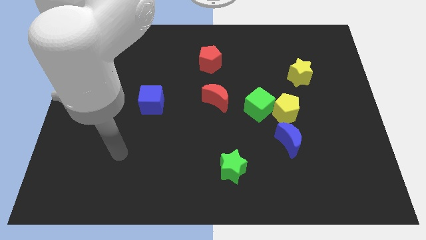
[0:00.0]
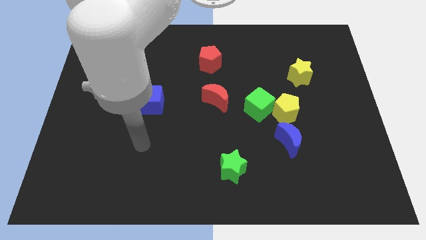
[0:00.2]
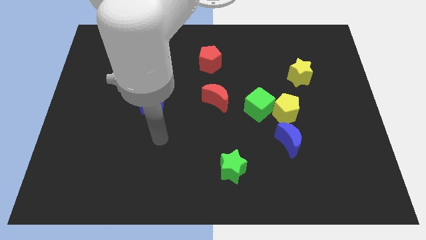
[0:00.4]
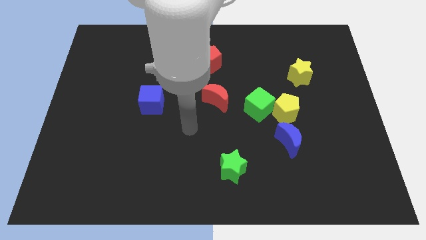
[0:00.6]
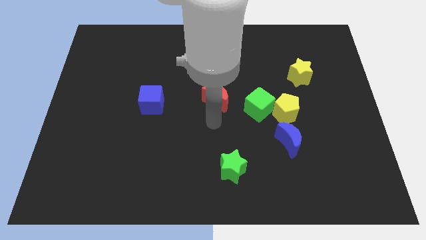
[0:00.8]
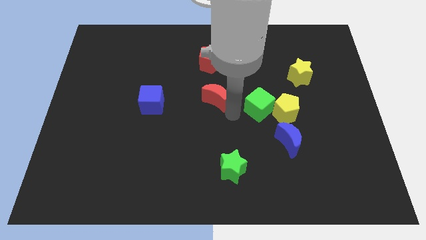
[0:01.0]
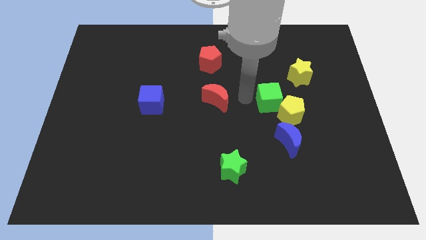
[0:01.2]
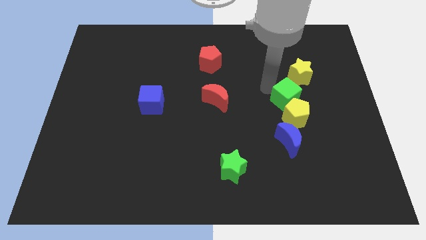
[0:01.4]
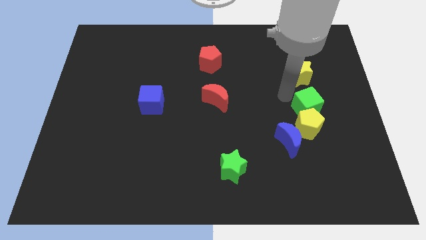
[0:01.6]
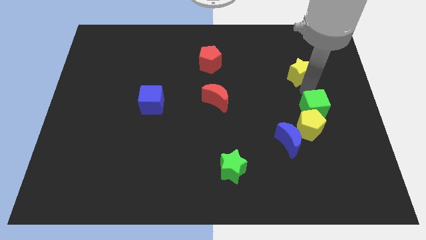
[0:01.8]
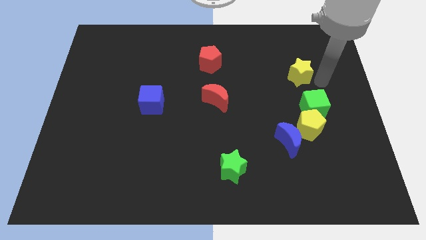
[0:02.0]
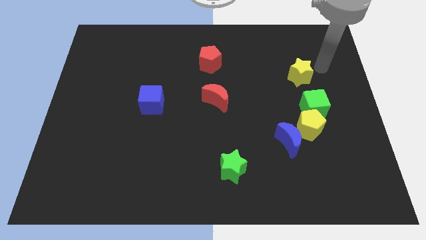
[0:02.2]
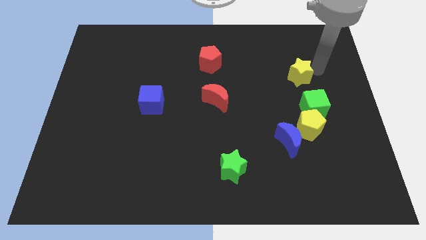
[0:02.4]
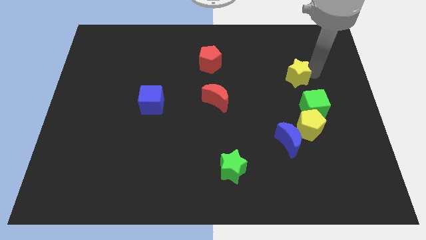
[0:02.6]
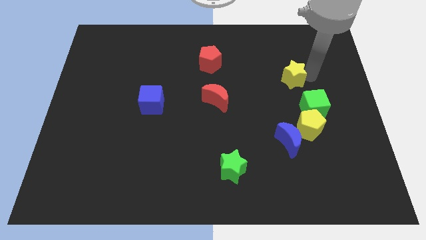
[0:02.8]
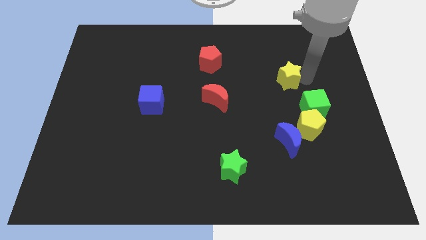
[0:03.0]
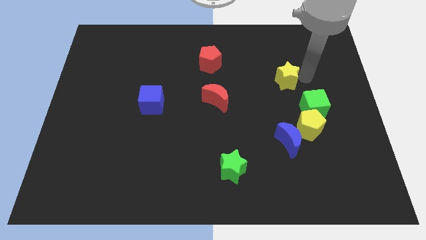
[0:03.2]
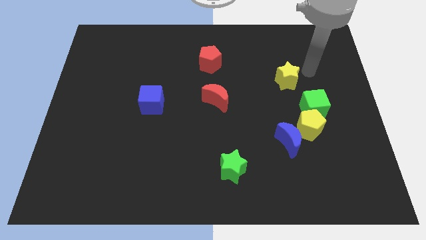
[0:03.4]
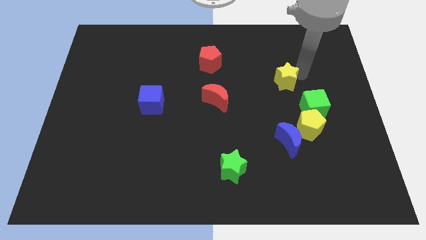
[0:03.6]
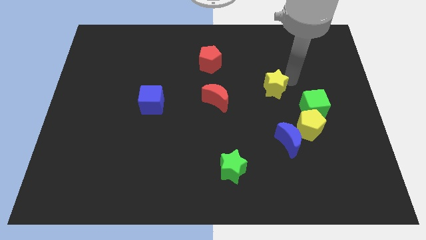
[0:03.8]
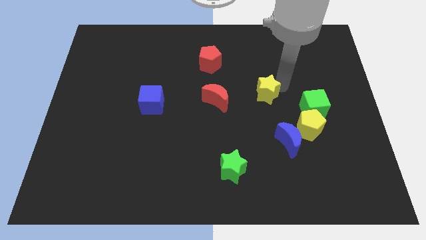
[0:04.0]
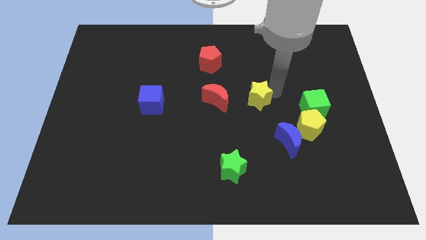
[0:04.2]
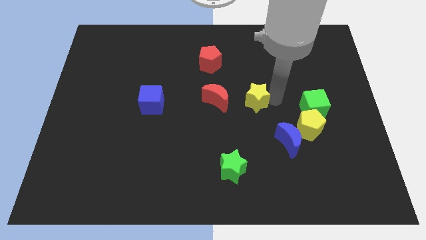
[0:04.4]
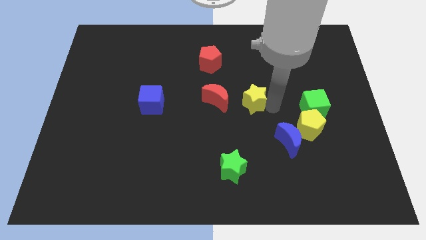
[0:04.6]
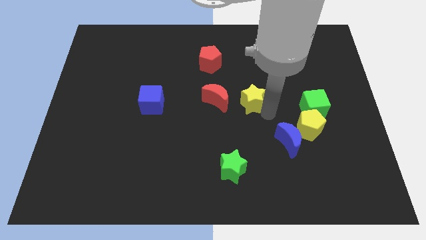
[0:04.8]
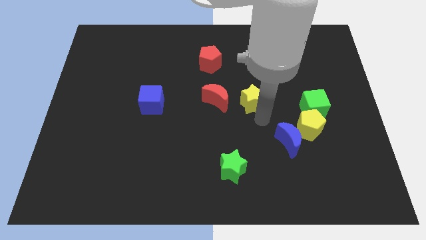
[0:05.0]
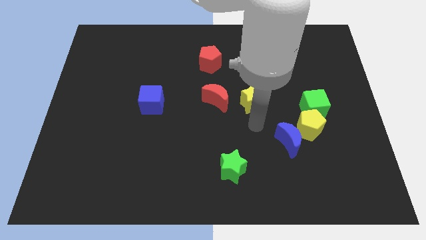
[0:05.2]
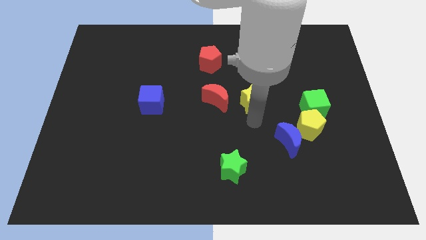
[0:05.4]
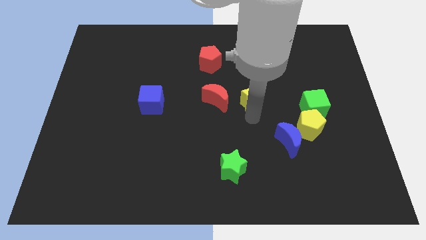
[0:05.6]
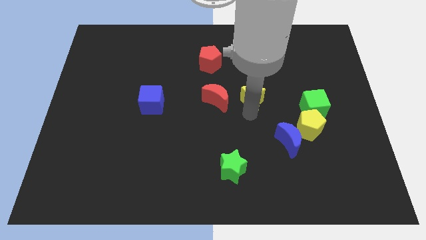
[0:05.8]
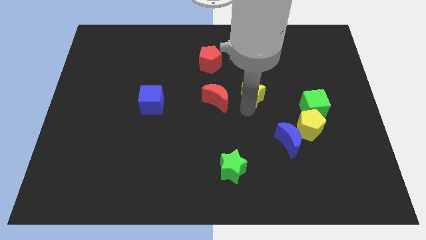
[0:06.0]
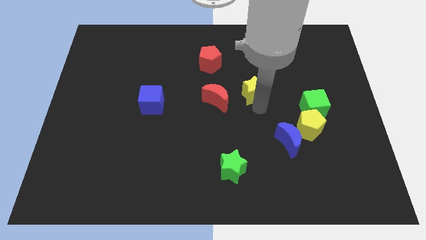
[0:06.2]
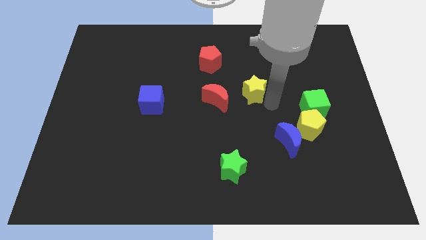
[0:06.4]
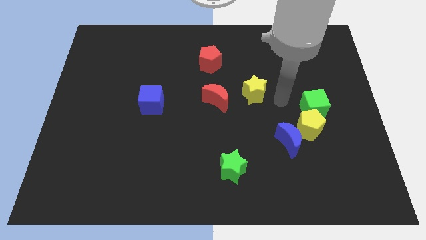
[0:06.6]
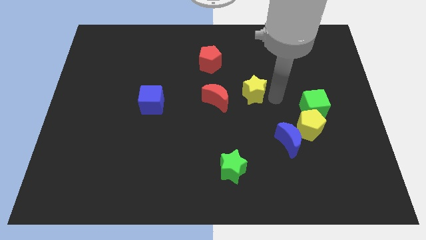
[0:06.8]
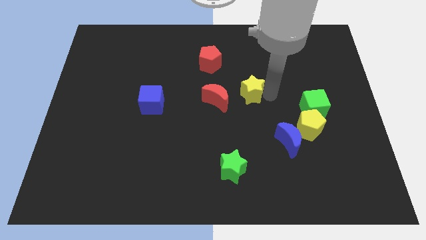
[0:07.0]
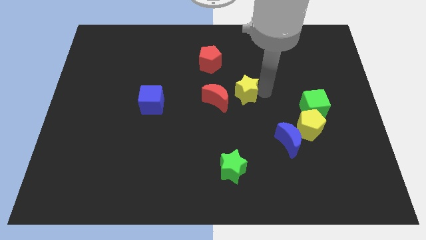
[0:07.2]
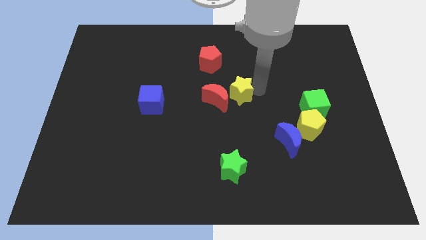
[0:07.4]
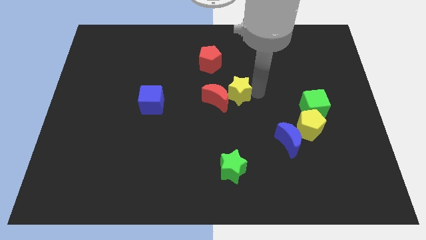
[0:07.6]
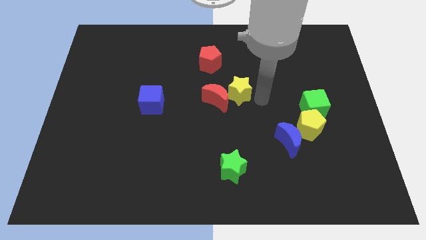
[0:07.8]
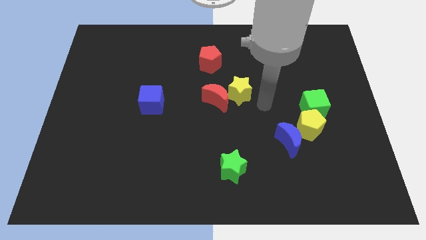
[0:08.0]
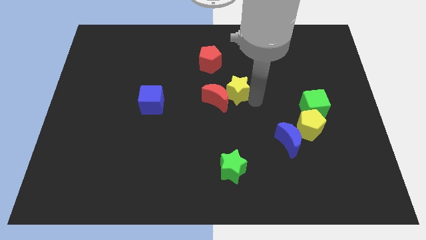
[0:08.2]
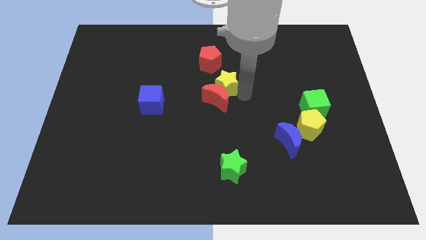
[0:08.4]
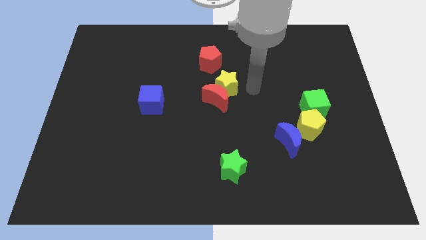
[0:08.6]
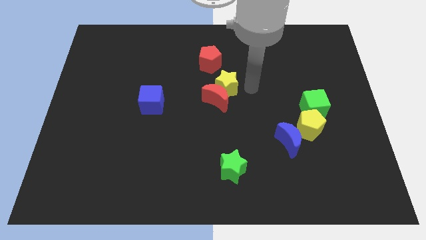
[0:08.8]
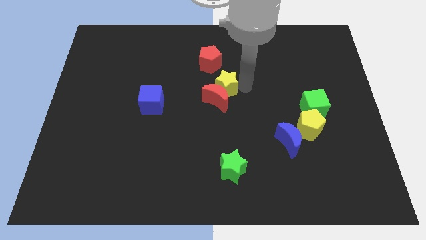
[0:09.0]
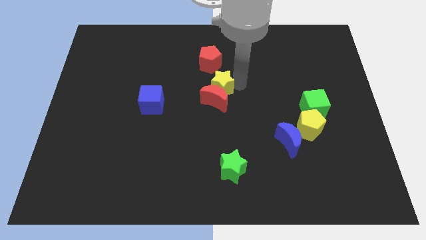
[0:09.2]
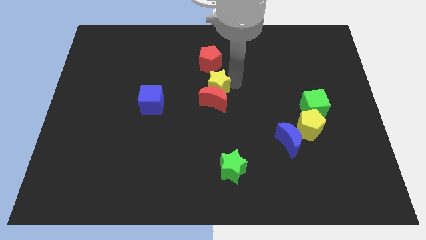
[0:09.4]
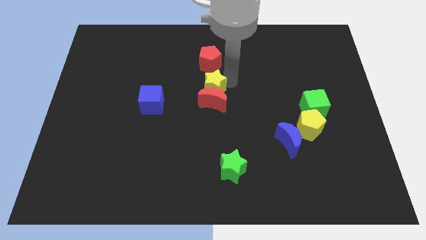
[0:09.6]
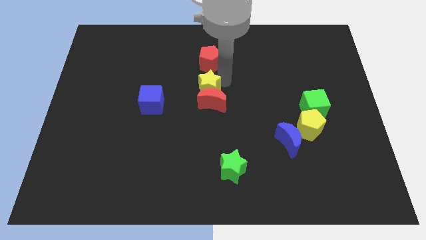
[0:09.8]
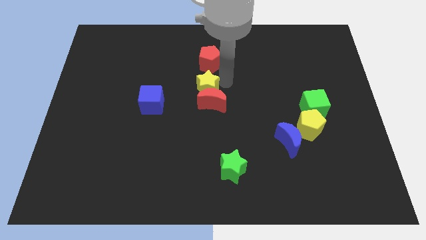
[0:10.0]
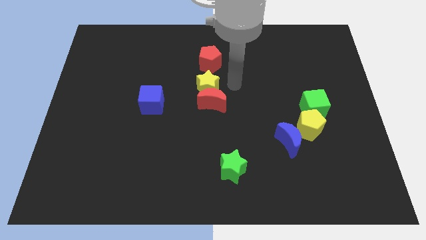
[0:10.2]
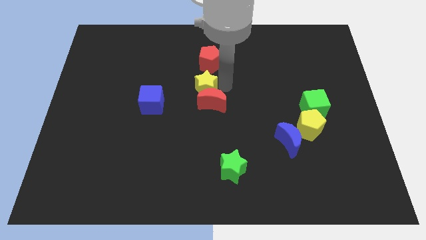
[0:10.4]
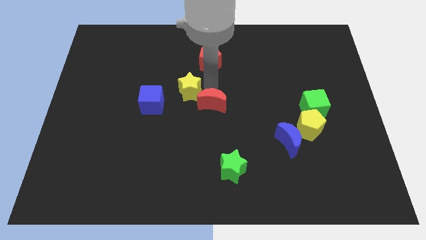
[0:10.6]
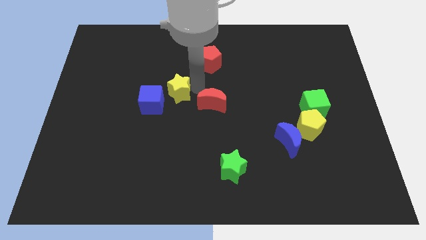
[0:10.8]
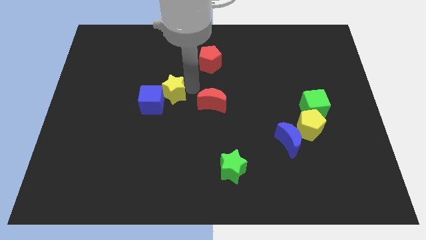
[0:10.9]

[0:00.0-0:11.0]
put the yellow star close to the blue cube

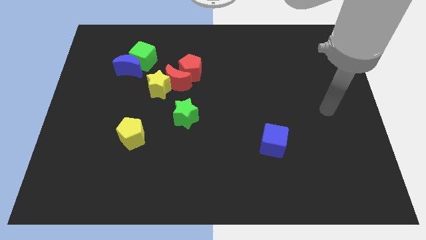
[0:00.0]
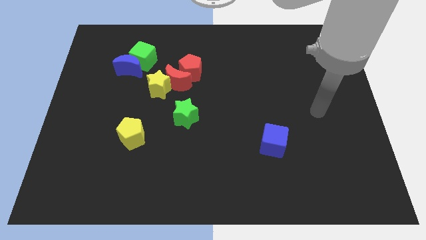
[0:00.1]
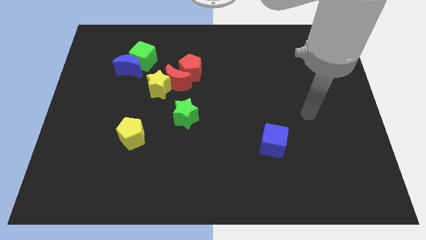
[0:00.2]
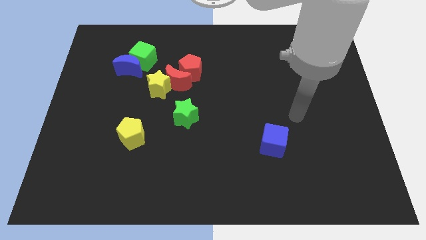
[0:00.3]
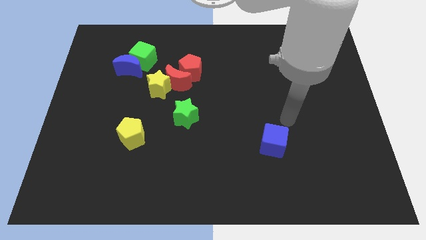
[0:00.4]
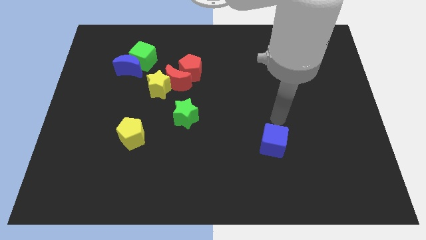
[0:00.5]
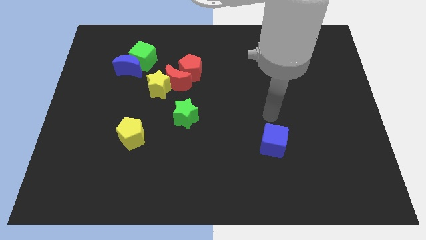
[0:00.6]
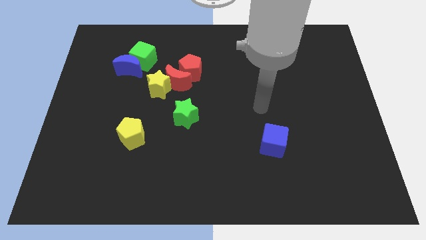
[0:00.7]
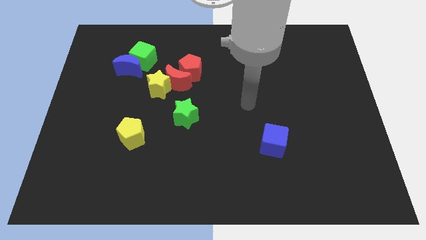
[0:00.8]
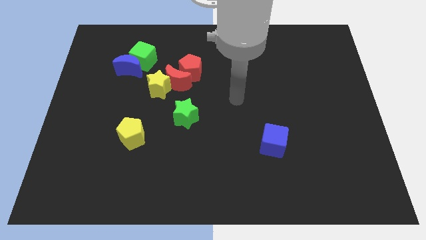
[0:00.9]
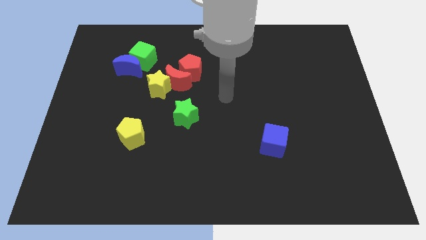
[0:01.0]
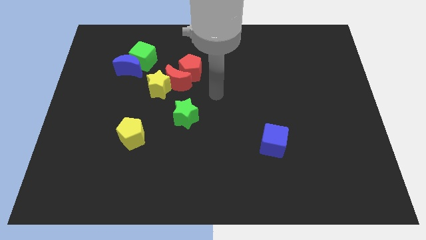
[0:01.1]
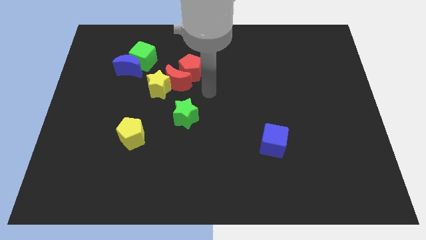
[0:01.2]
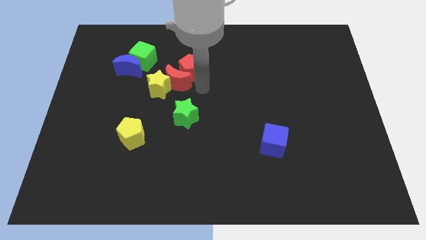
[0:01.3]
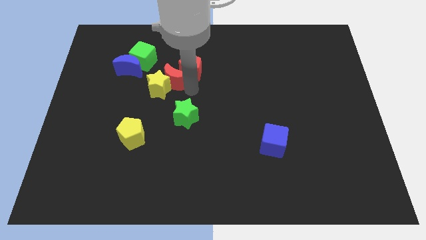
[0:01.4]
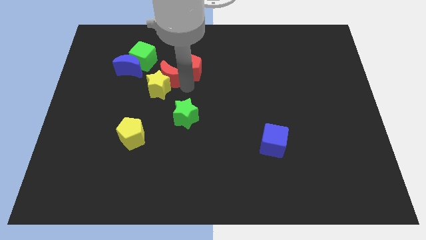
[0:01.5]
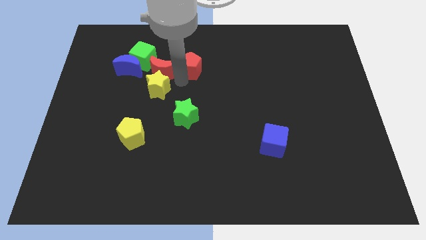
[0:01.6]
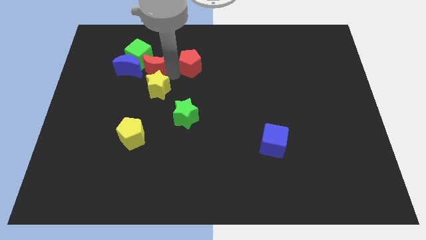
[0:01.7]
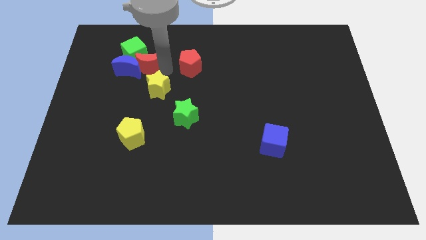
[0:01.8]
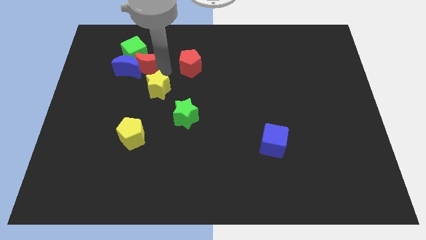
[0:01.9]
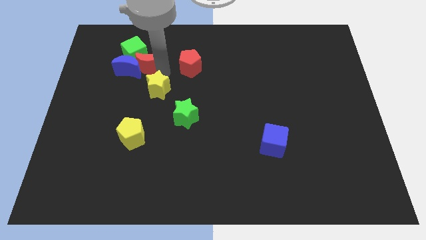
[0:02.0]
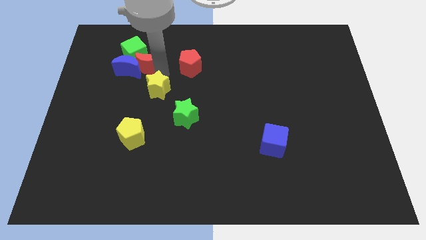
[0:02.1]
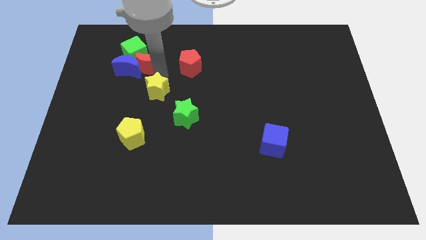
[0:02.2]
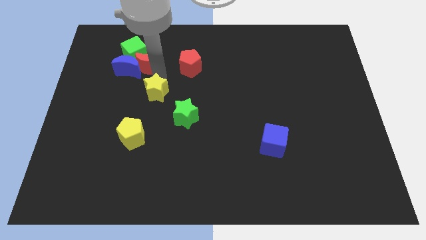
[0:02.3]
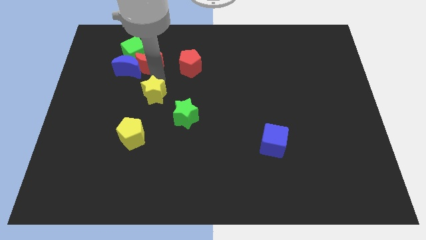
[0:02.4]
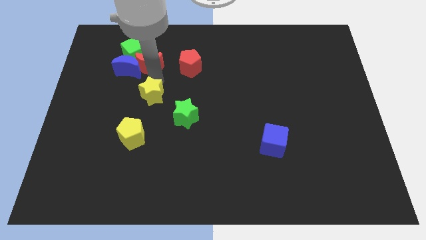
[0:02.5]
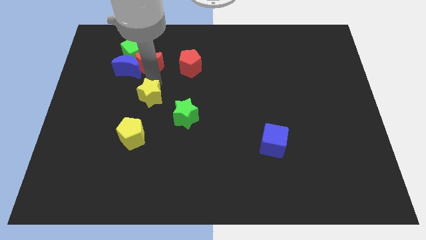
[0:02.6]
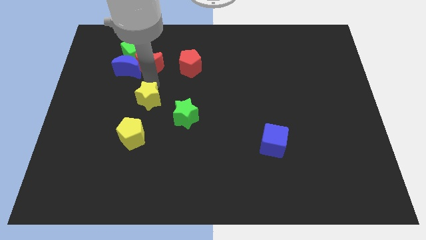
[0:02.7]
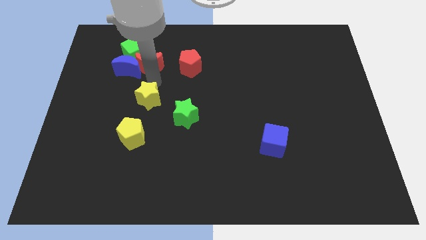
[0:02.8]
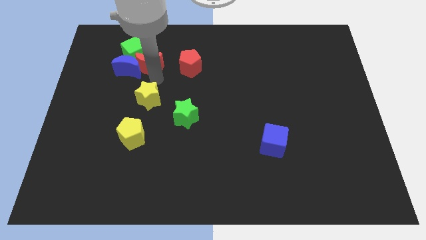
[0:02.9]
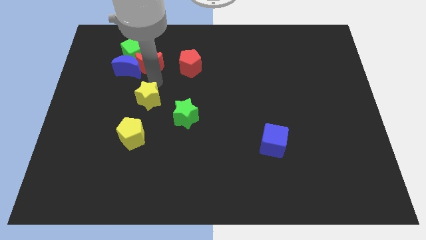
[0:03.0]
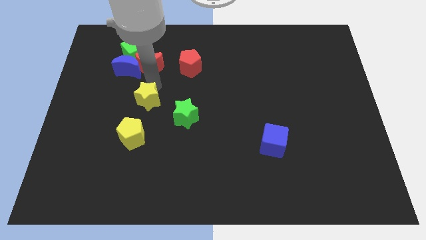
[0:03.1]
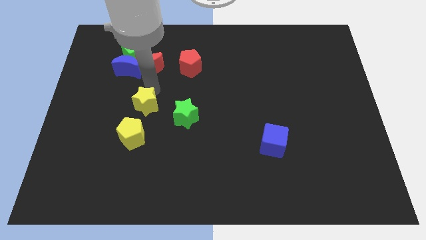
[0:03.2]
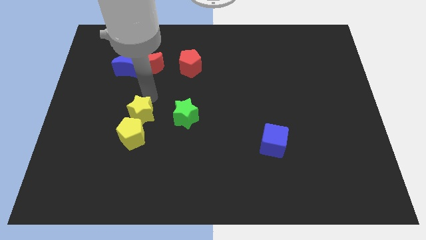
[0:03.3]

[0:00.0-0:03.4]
put the yellow star next to the yellow pentagon
